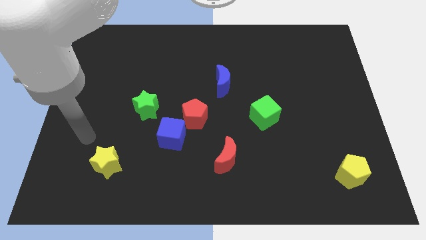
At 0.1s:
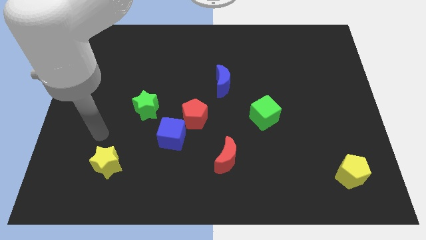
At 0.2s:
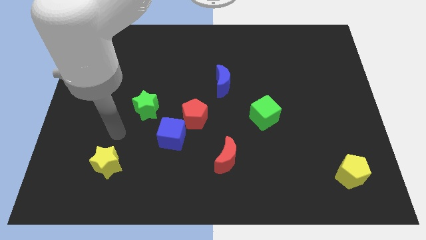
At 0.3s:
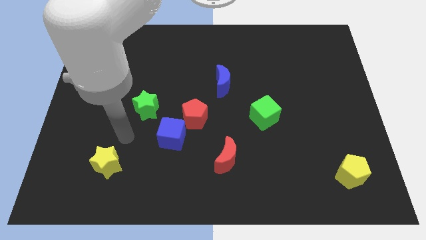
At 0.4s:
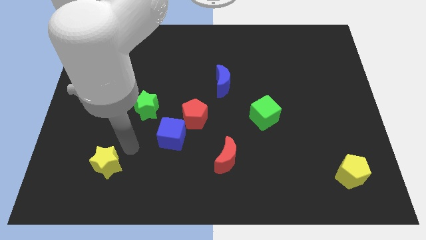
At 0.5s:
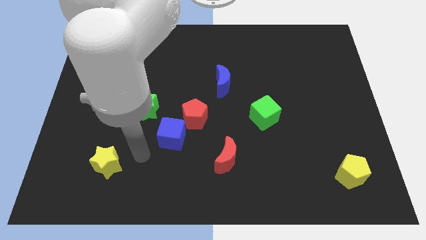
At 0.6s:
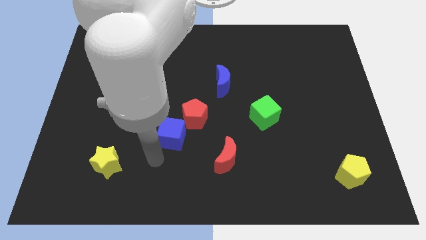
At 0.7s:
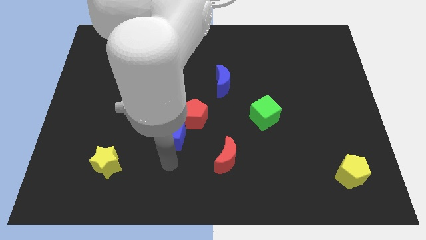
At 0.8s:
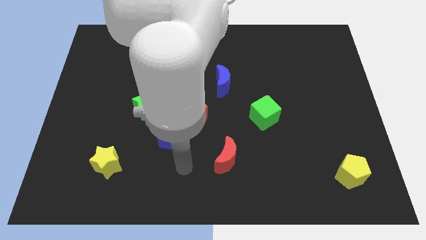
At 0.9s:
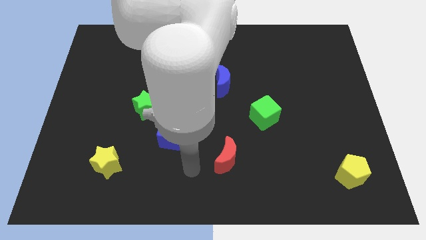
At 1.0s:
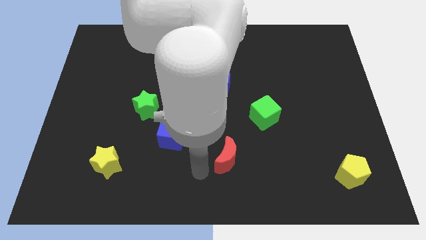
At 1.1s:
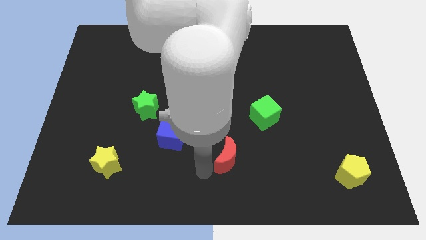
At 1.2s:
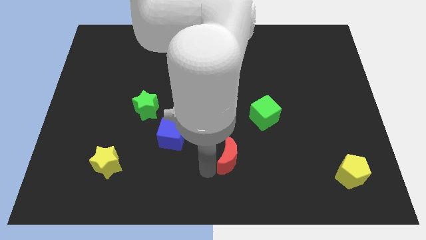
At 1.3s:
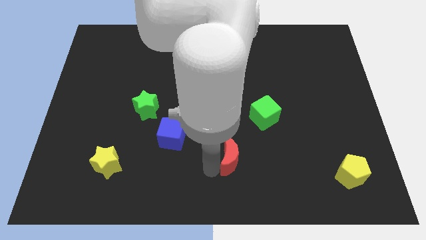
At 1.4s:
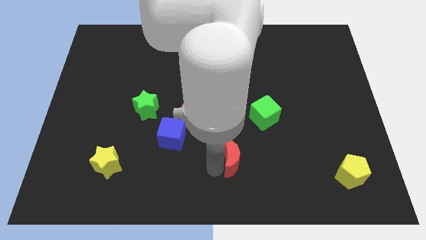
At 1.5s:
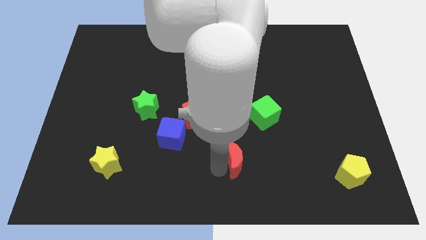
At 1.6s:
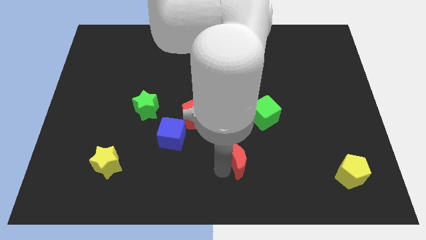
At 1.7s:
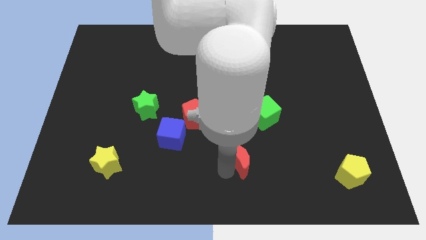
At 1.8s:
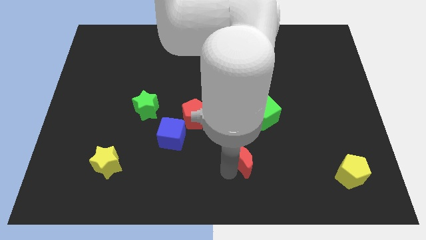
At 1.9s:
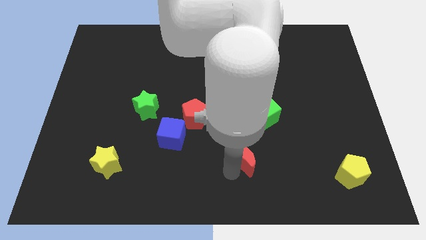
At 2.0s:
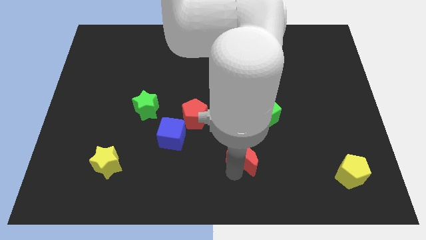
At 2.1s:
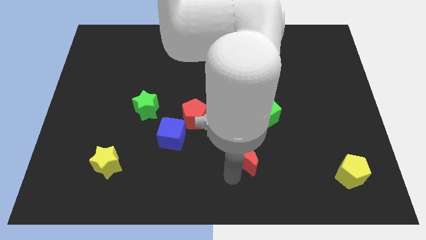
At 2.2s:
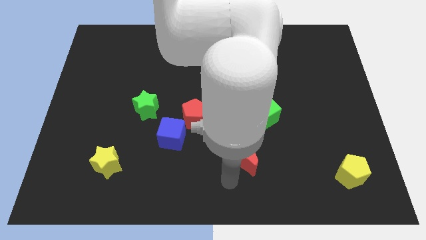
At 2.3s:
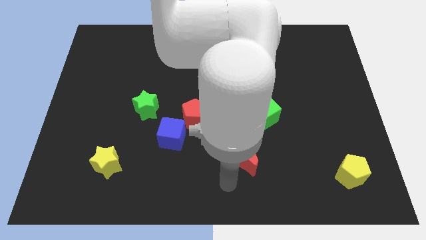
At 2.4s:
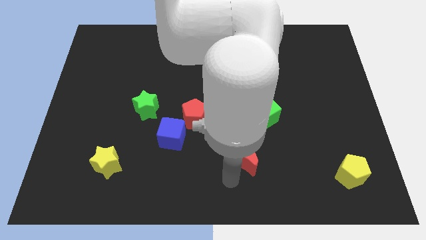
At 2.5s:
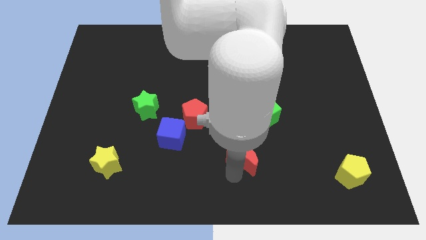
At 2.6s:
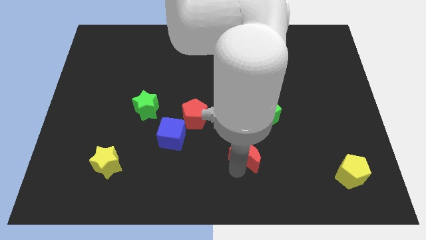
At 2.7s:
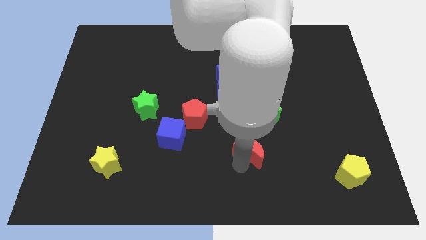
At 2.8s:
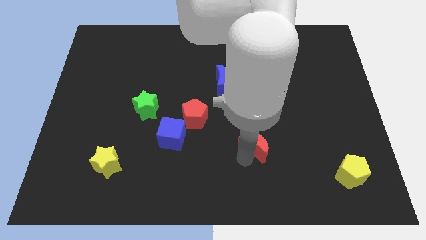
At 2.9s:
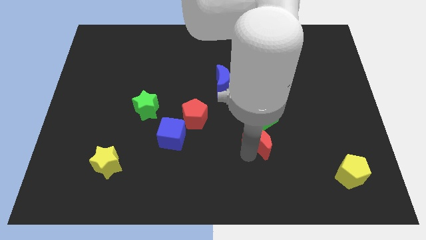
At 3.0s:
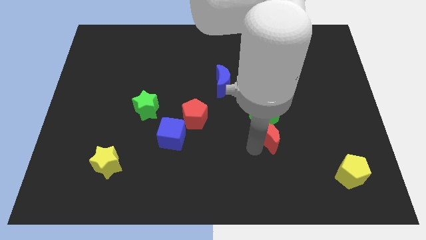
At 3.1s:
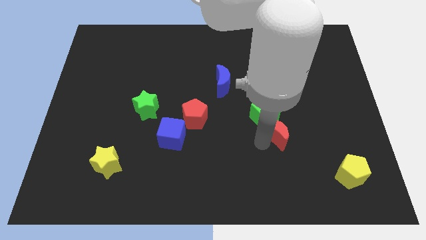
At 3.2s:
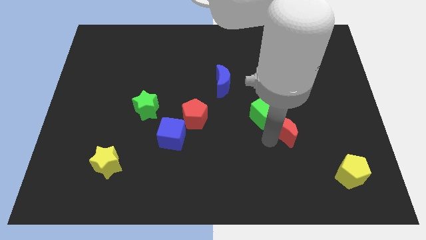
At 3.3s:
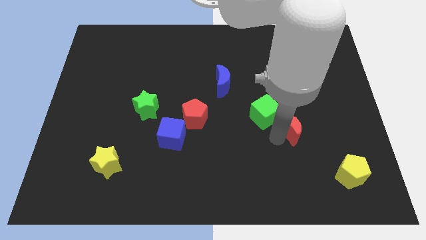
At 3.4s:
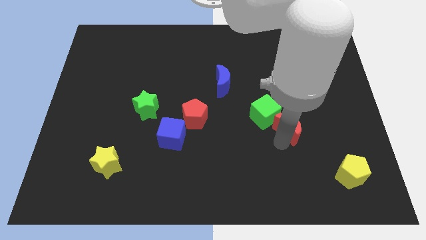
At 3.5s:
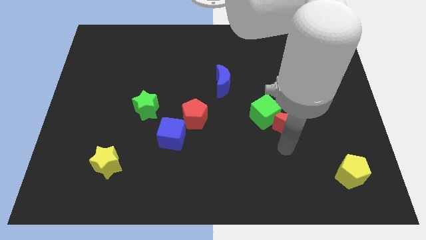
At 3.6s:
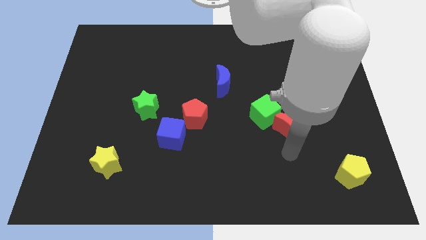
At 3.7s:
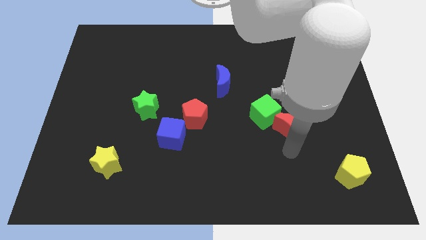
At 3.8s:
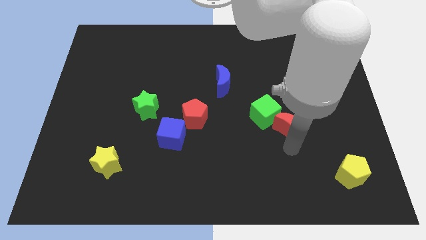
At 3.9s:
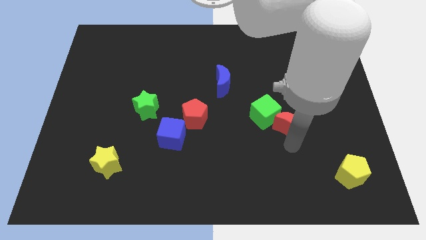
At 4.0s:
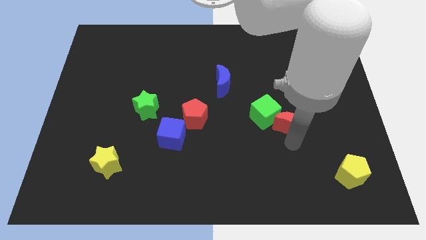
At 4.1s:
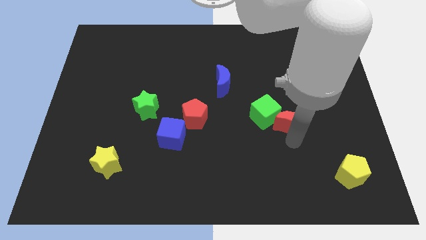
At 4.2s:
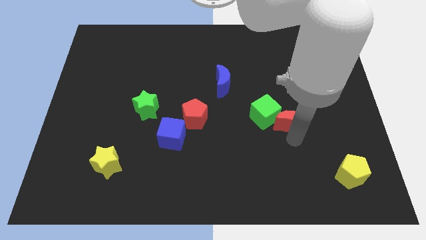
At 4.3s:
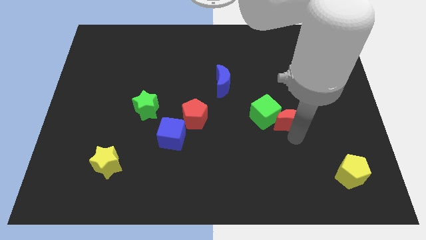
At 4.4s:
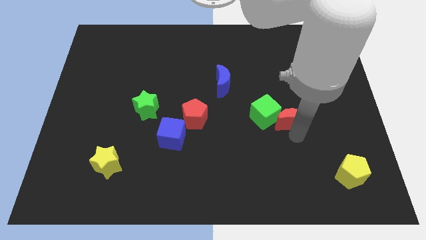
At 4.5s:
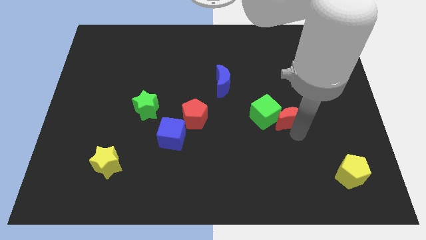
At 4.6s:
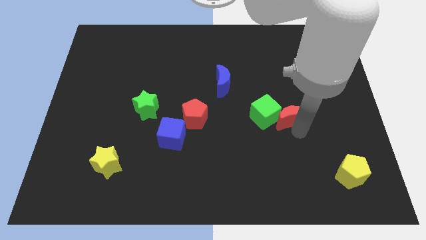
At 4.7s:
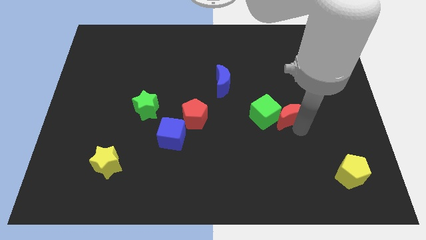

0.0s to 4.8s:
slide the red moon diagonally up and to the right of the green cube

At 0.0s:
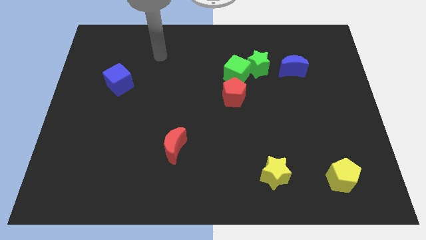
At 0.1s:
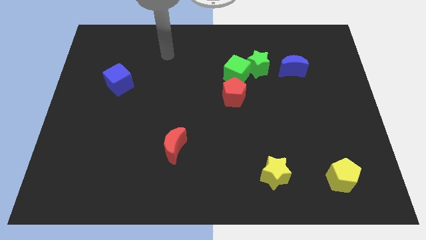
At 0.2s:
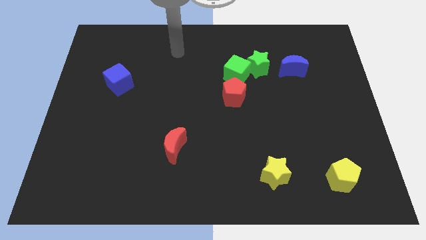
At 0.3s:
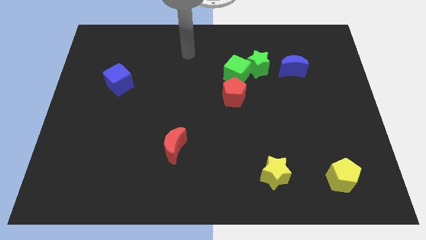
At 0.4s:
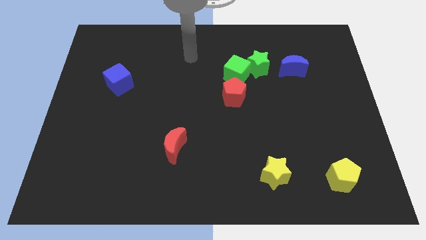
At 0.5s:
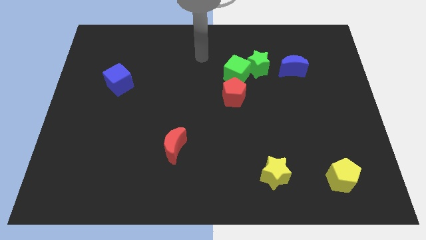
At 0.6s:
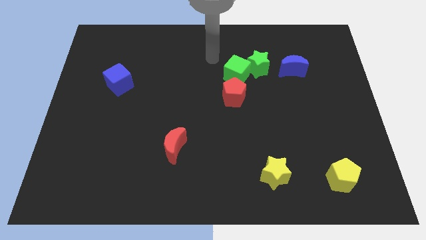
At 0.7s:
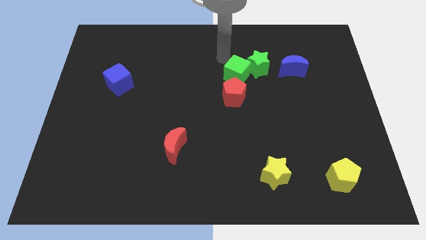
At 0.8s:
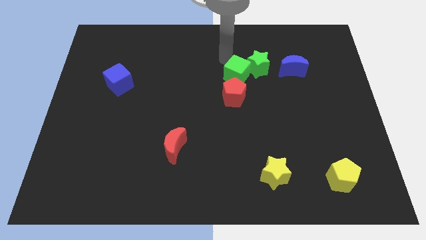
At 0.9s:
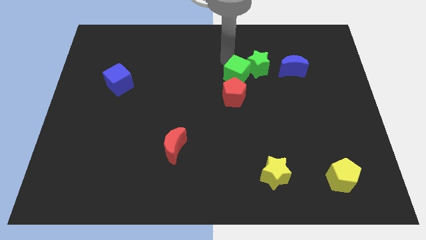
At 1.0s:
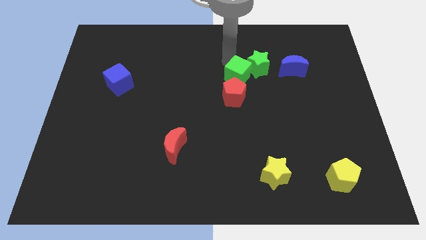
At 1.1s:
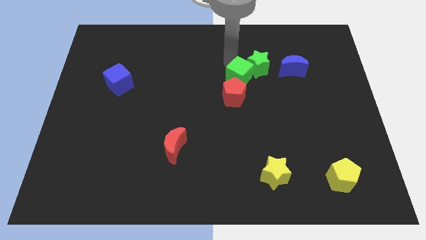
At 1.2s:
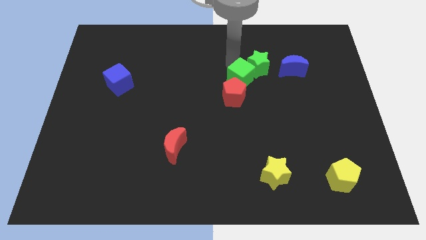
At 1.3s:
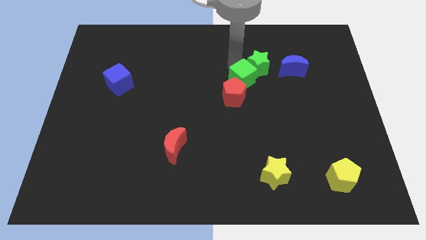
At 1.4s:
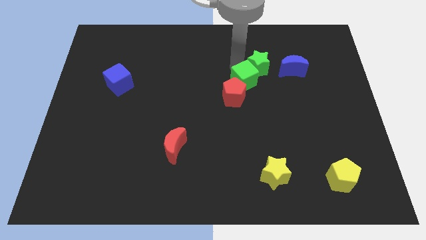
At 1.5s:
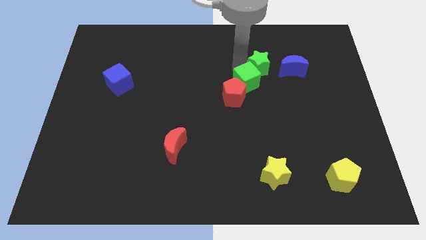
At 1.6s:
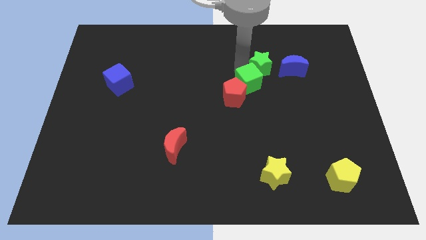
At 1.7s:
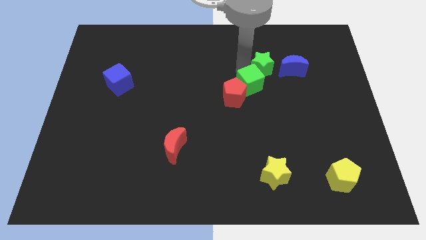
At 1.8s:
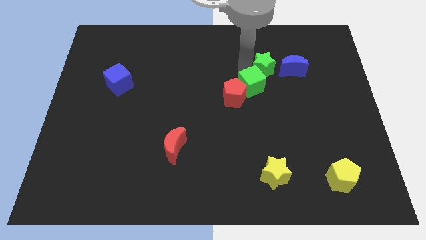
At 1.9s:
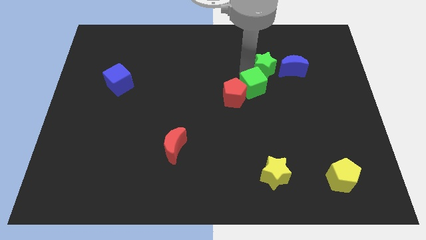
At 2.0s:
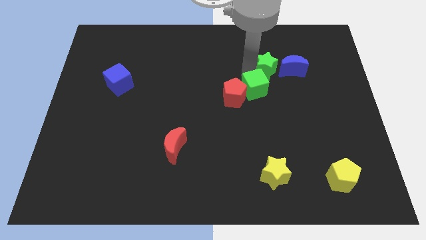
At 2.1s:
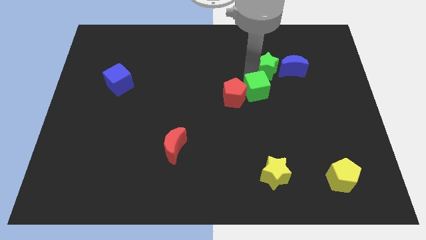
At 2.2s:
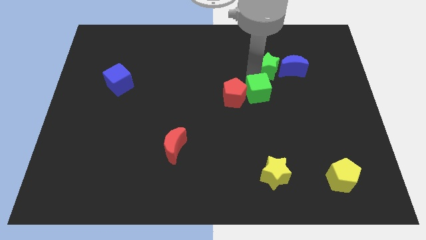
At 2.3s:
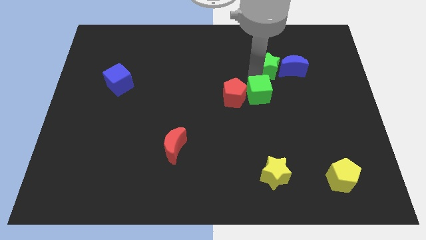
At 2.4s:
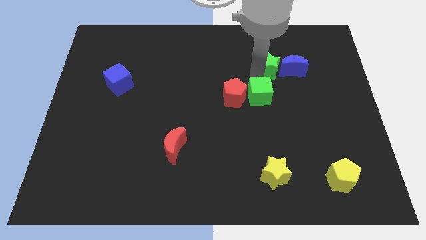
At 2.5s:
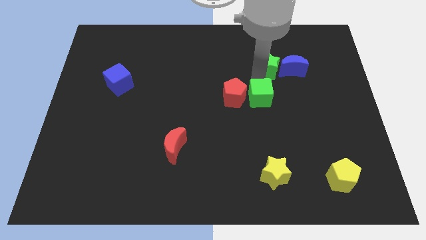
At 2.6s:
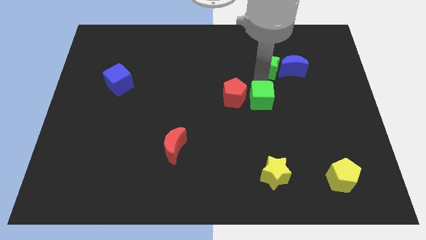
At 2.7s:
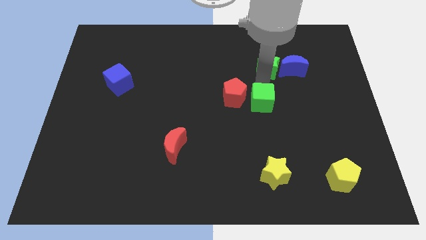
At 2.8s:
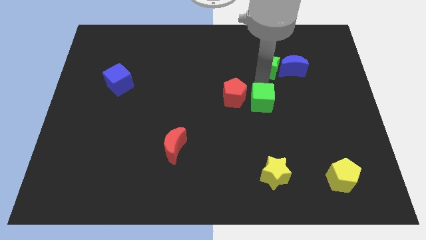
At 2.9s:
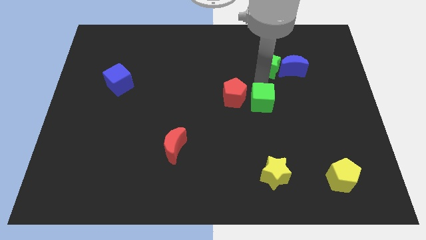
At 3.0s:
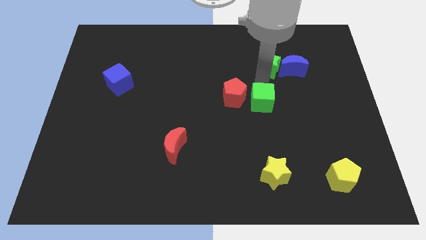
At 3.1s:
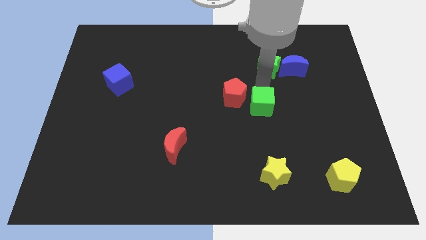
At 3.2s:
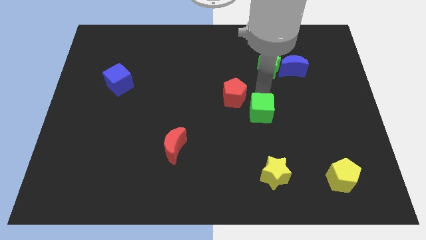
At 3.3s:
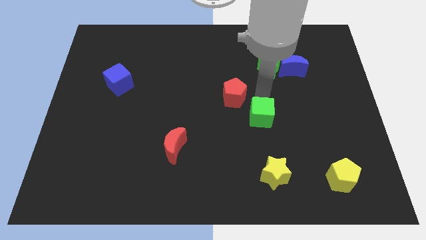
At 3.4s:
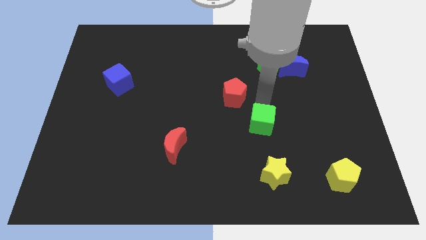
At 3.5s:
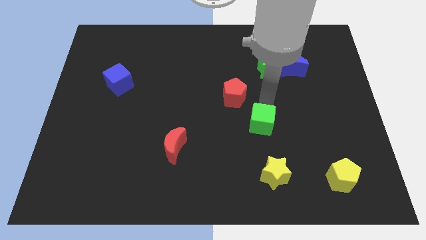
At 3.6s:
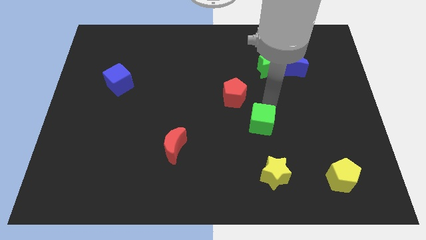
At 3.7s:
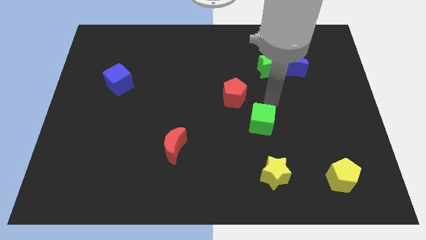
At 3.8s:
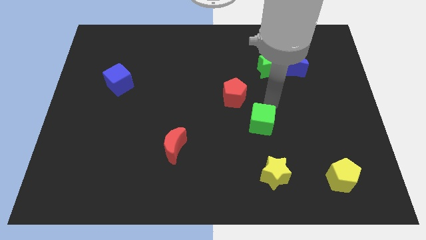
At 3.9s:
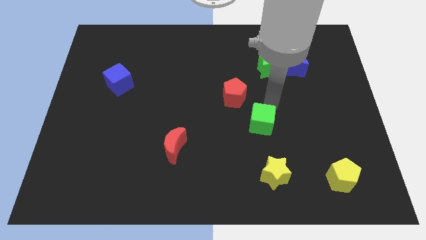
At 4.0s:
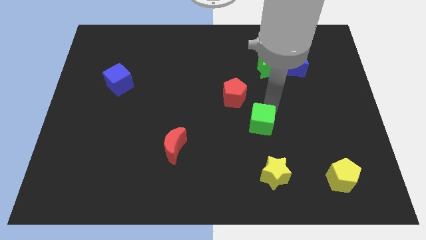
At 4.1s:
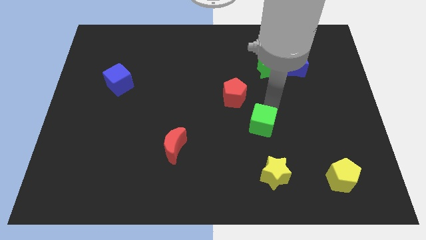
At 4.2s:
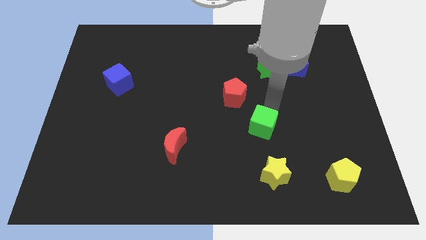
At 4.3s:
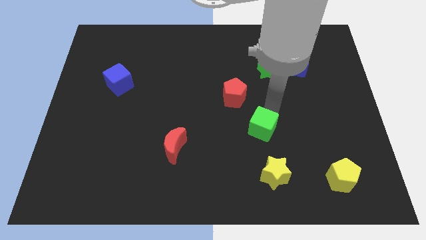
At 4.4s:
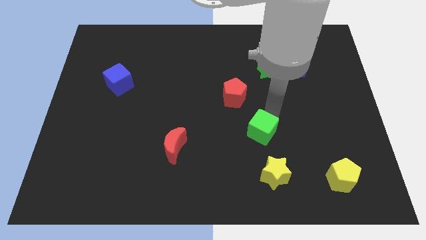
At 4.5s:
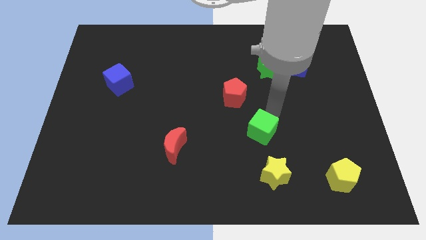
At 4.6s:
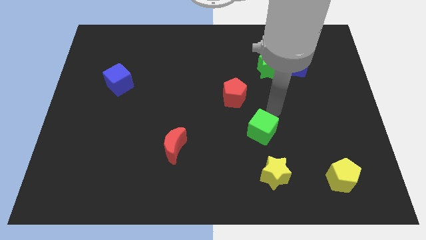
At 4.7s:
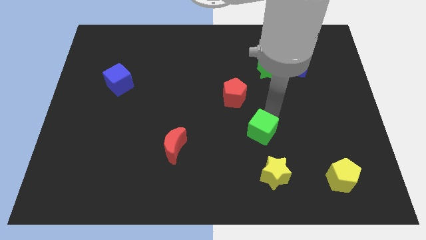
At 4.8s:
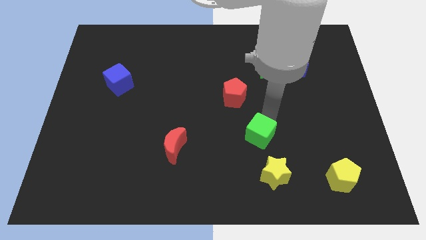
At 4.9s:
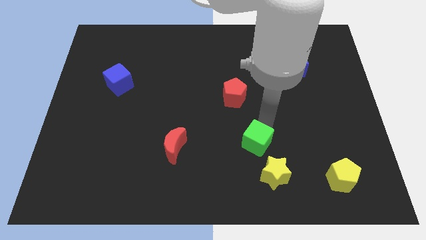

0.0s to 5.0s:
move the green cube to the top left of the yellow star
